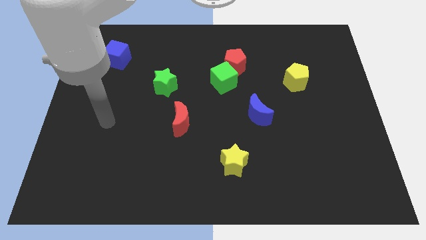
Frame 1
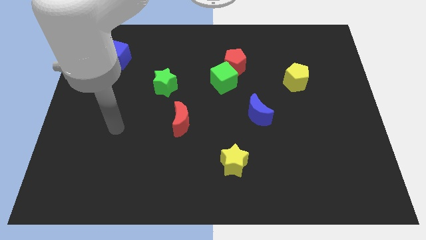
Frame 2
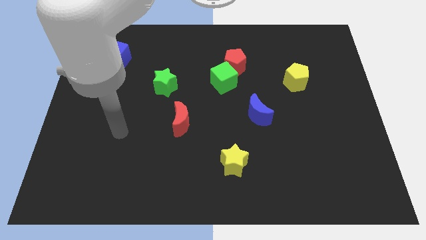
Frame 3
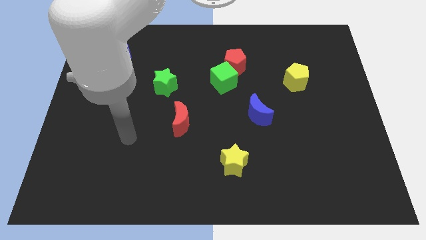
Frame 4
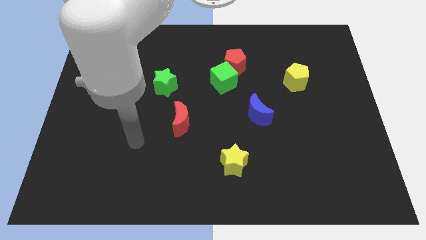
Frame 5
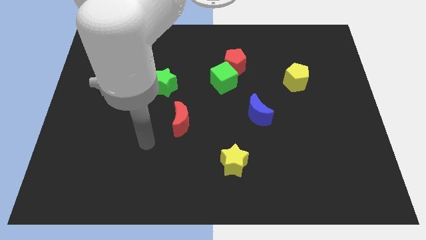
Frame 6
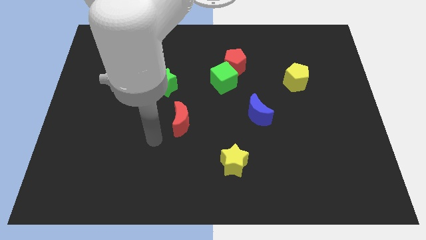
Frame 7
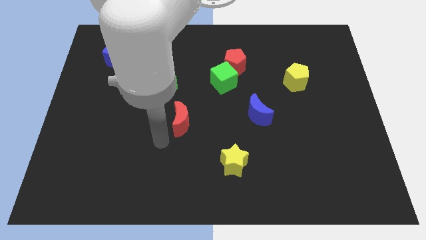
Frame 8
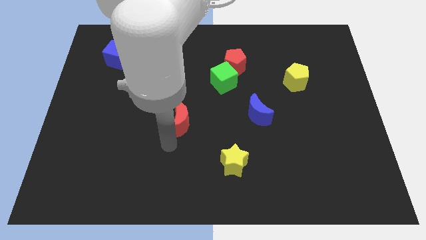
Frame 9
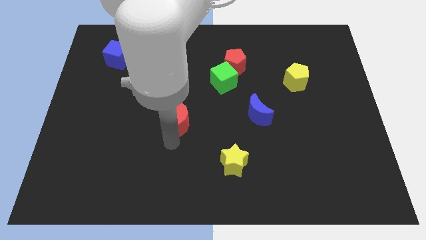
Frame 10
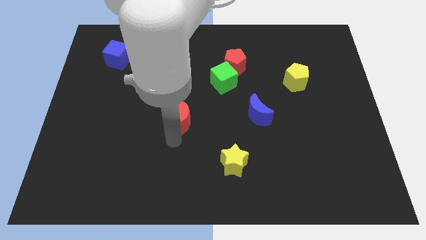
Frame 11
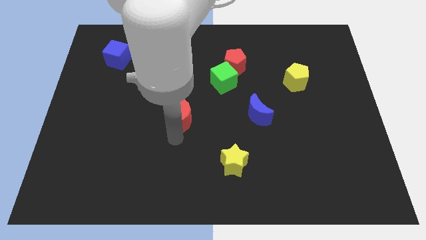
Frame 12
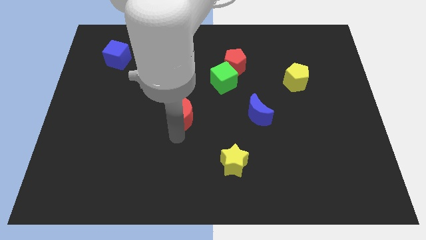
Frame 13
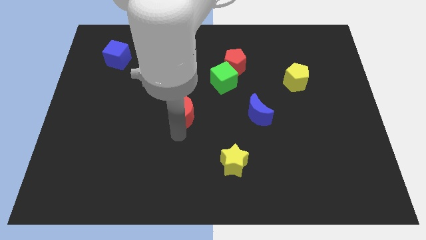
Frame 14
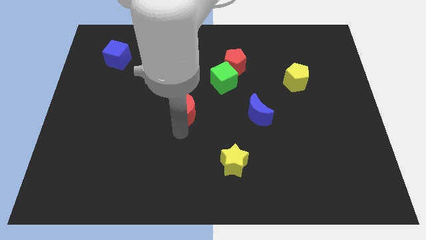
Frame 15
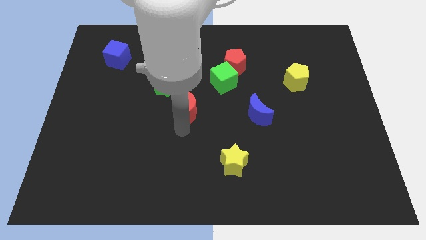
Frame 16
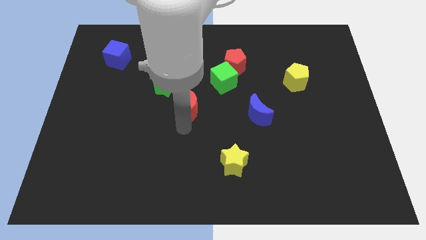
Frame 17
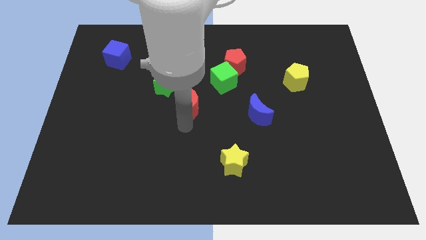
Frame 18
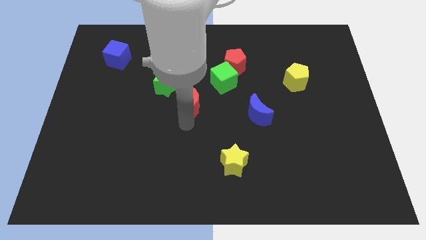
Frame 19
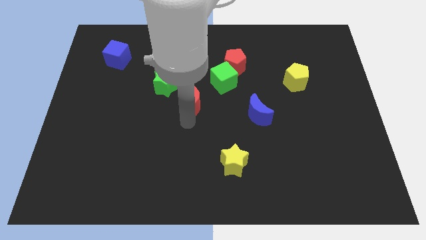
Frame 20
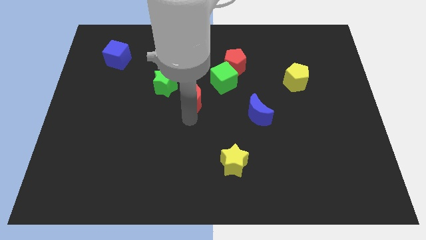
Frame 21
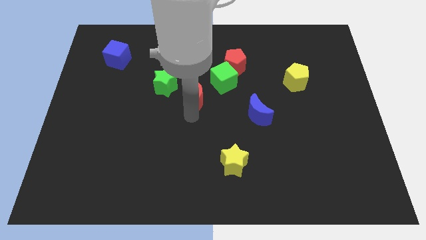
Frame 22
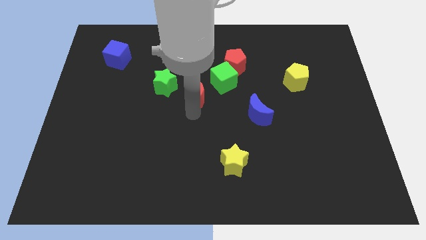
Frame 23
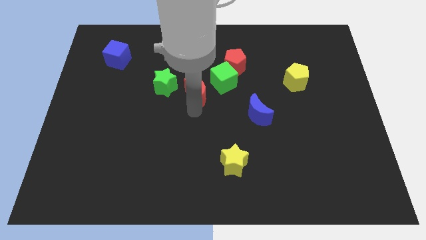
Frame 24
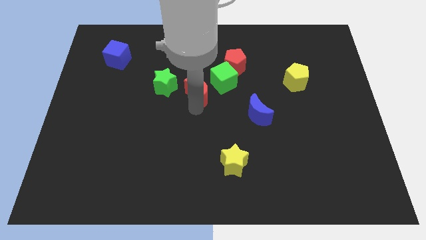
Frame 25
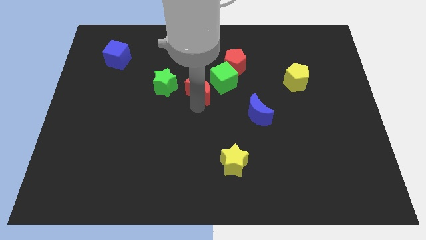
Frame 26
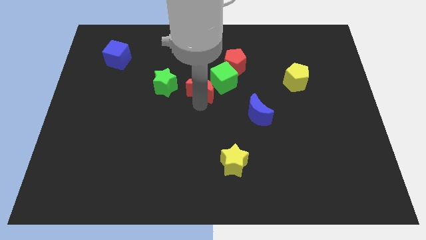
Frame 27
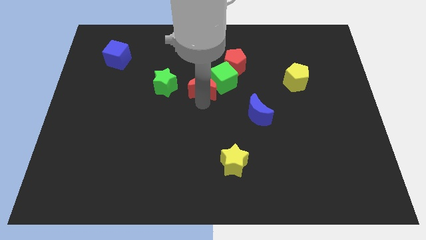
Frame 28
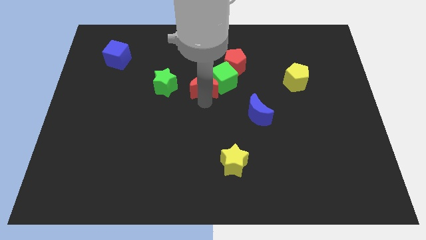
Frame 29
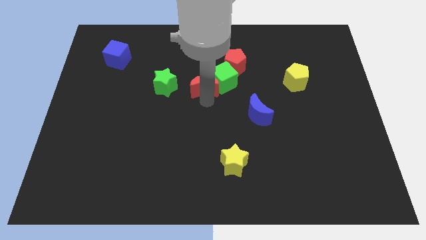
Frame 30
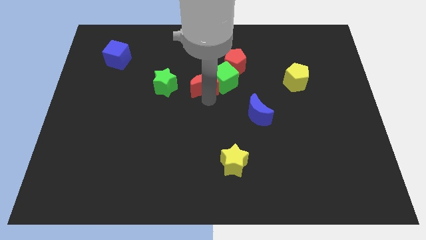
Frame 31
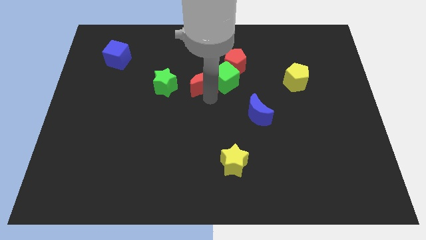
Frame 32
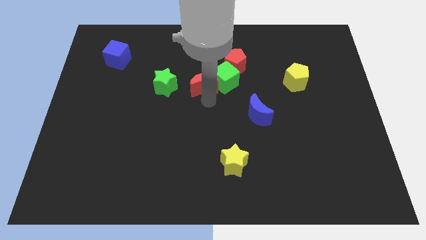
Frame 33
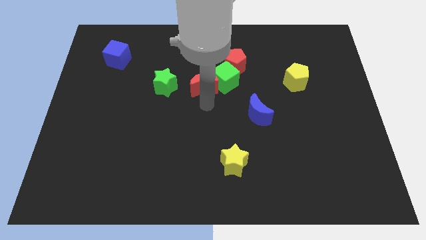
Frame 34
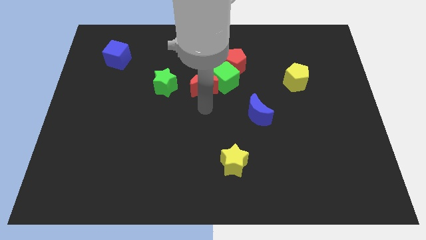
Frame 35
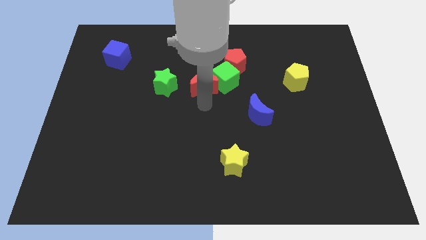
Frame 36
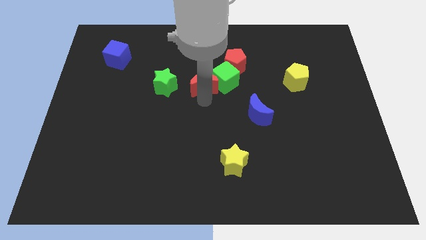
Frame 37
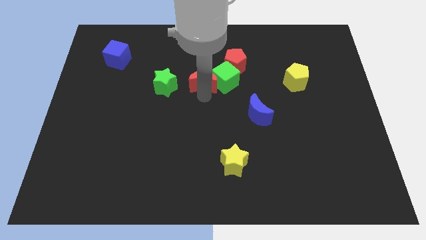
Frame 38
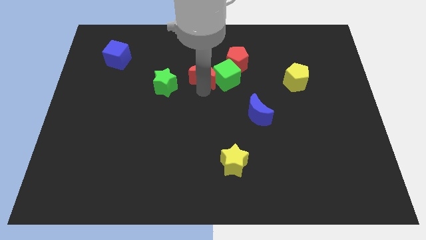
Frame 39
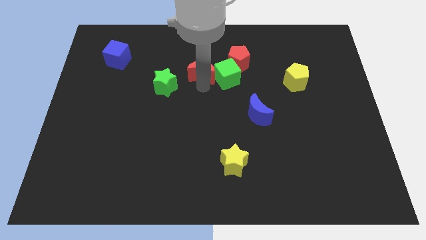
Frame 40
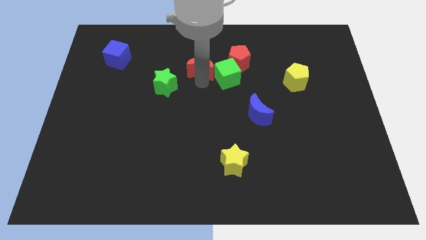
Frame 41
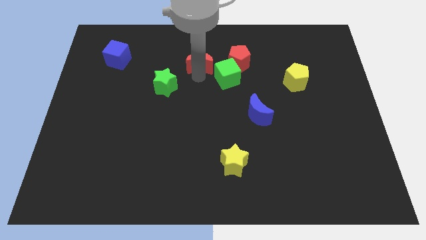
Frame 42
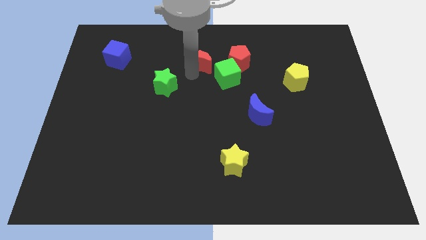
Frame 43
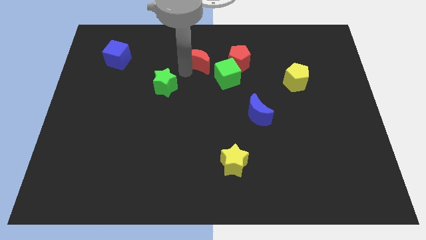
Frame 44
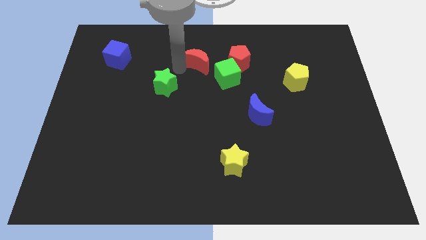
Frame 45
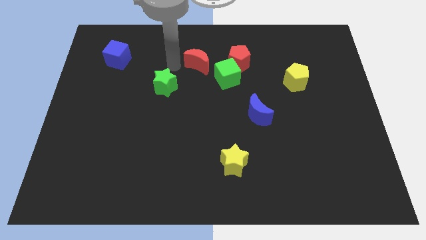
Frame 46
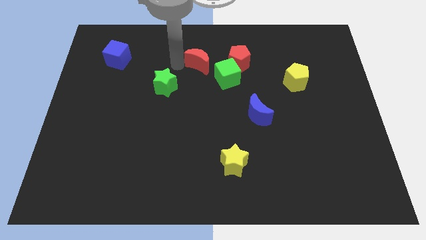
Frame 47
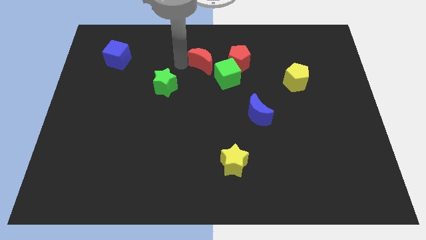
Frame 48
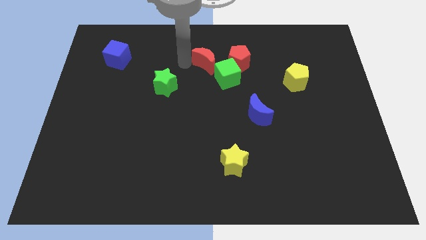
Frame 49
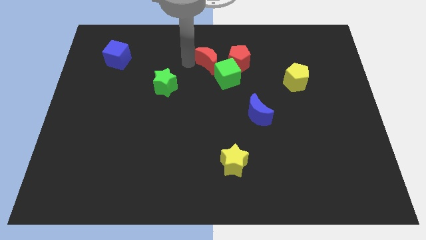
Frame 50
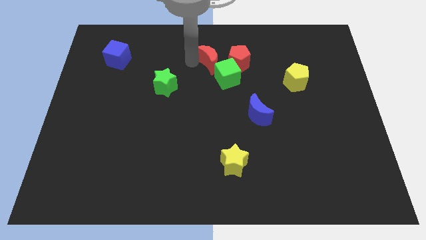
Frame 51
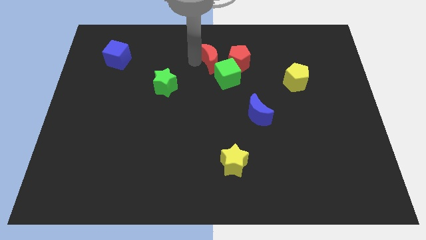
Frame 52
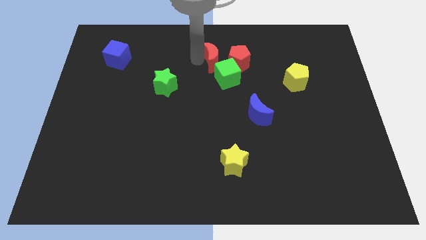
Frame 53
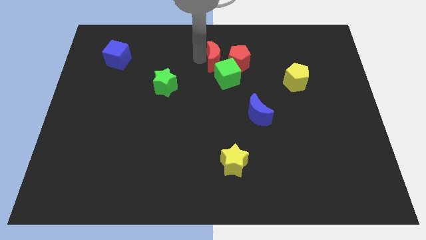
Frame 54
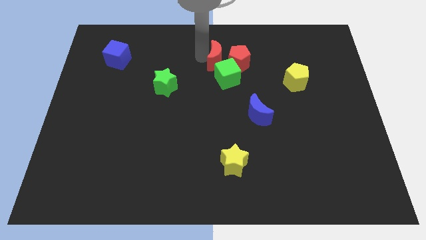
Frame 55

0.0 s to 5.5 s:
put the red moon close to the red pentagon

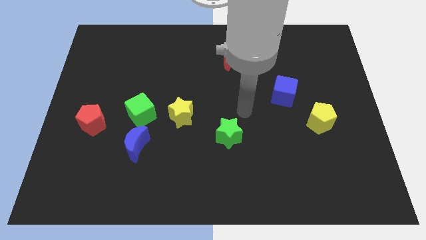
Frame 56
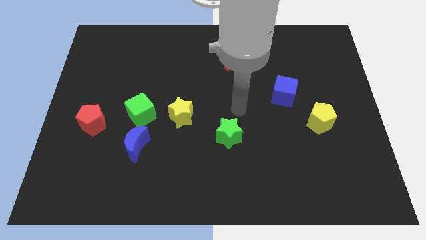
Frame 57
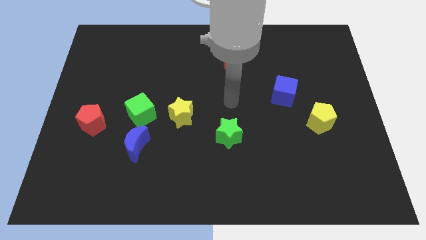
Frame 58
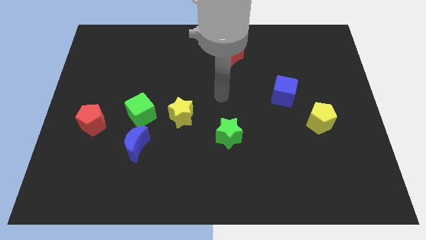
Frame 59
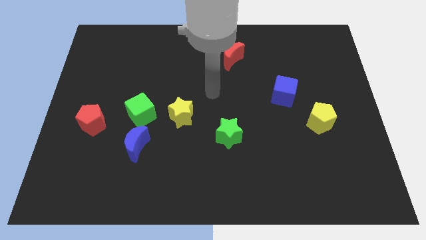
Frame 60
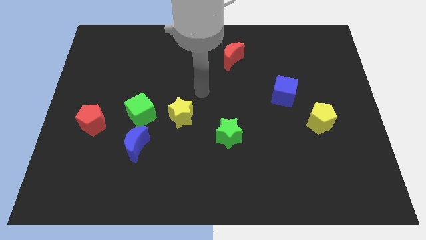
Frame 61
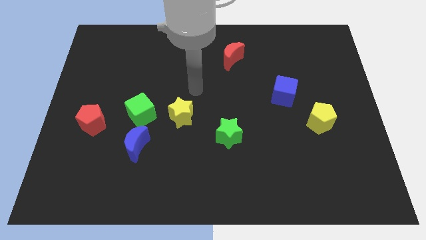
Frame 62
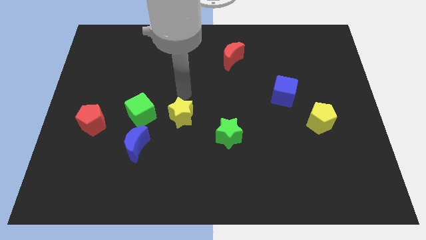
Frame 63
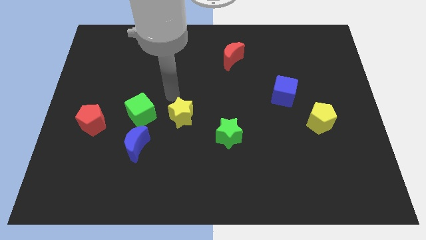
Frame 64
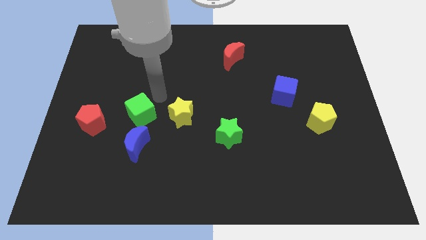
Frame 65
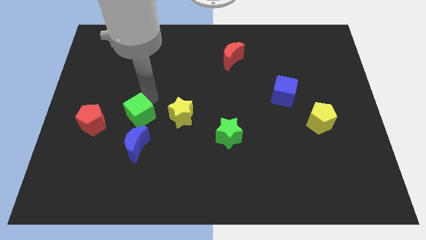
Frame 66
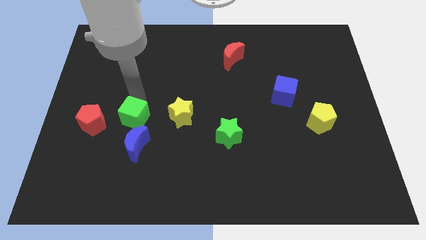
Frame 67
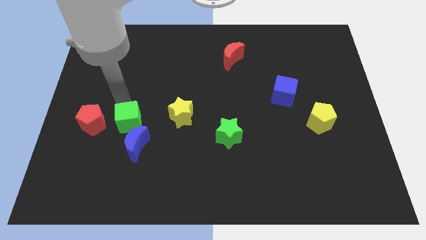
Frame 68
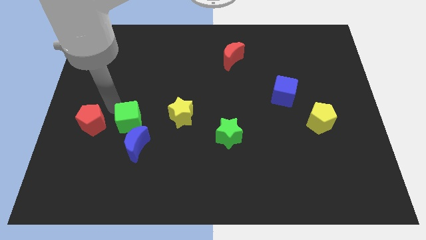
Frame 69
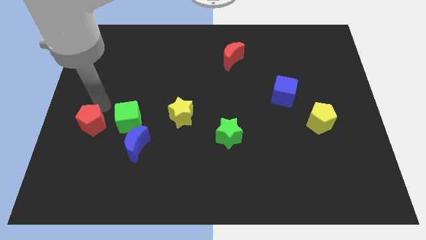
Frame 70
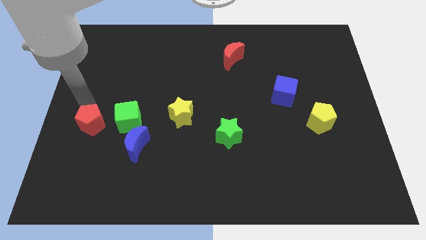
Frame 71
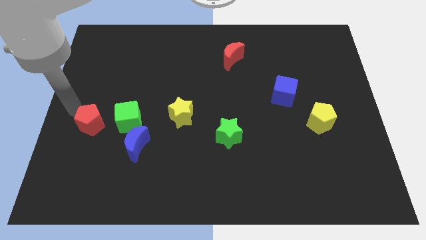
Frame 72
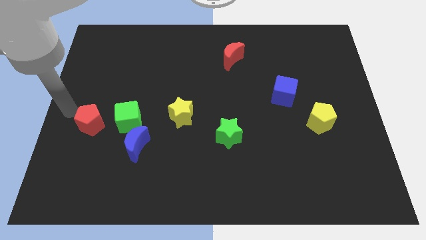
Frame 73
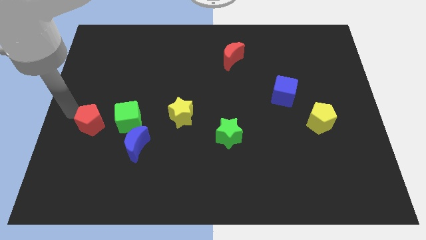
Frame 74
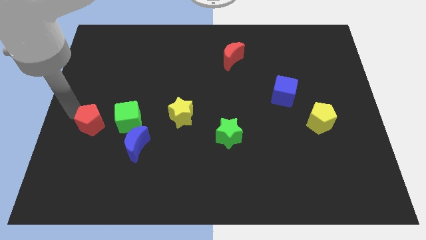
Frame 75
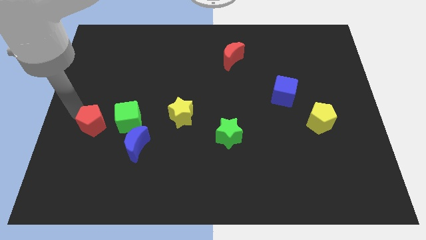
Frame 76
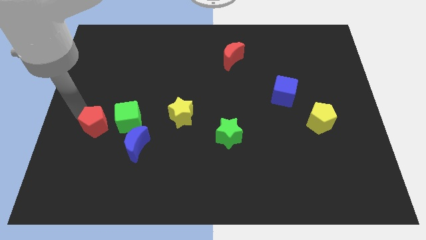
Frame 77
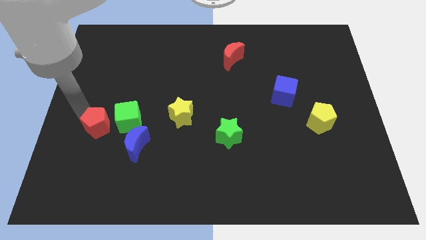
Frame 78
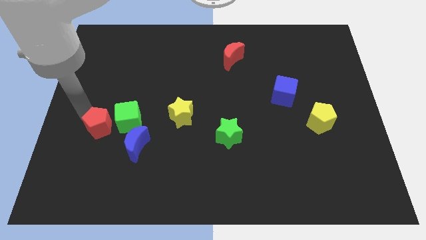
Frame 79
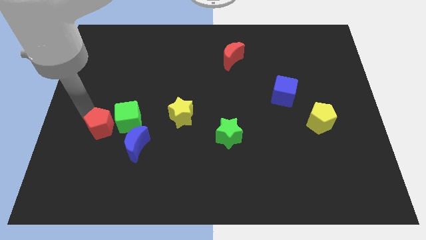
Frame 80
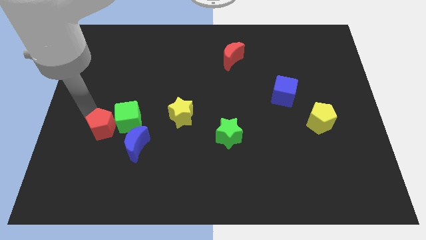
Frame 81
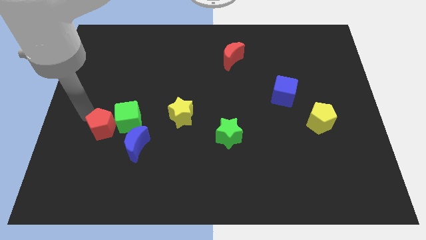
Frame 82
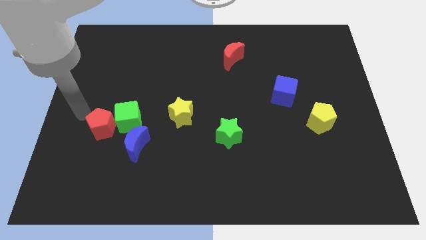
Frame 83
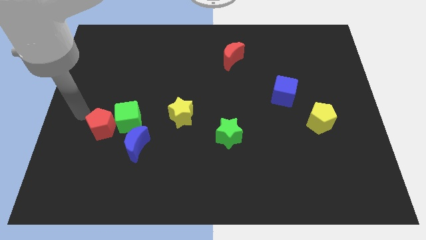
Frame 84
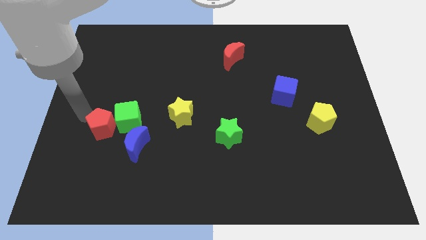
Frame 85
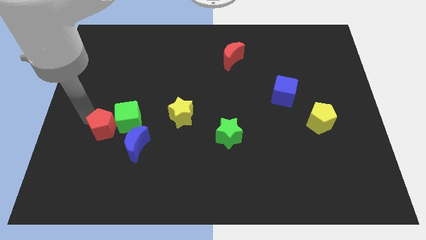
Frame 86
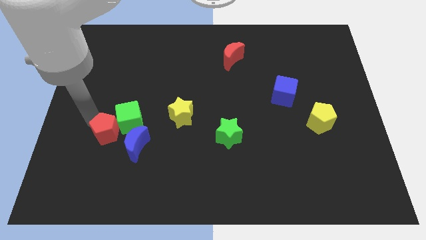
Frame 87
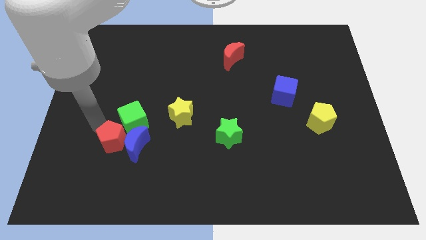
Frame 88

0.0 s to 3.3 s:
slide the red pentagon next to the blue moon
